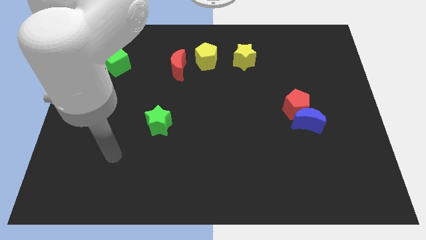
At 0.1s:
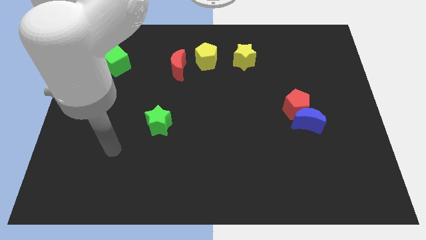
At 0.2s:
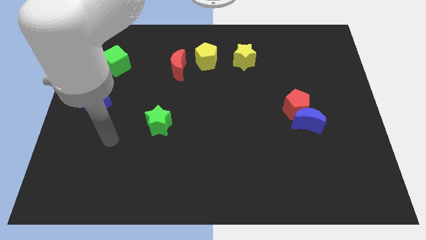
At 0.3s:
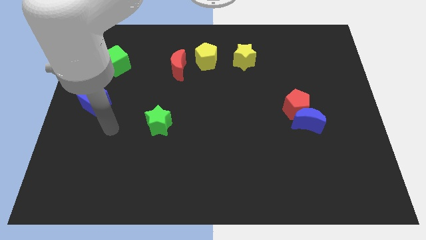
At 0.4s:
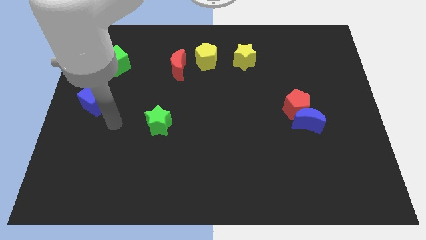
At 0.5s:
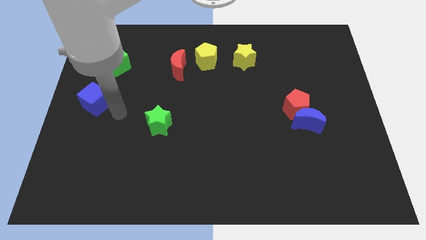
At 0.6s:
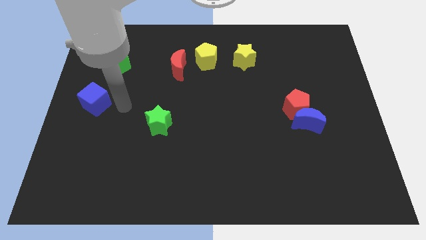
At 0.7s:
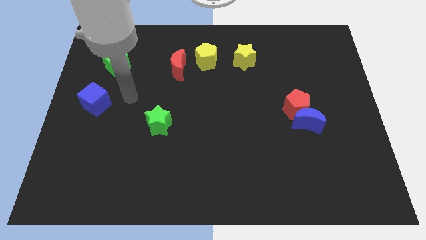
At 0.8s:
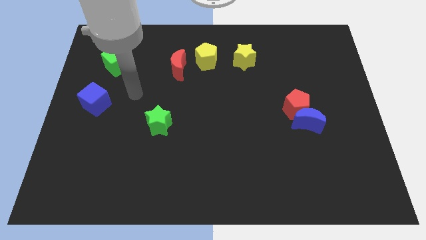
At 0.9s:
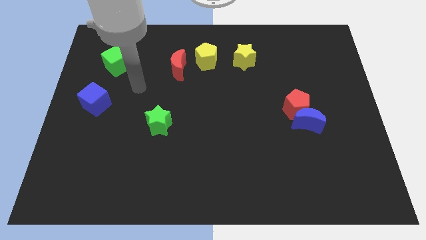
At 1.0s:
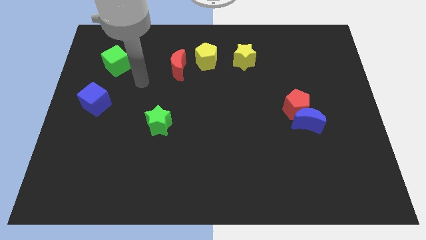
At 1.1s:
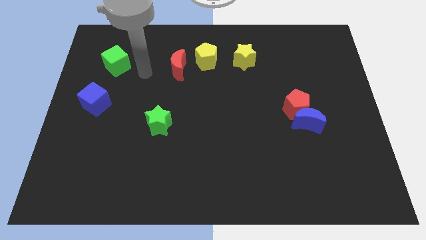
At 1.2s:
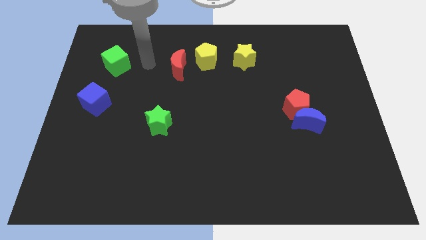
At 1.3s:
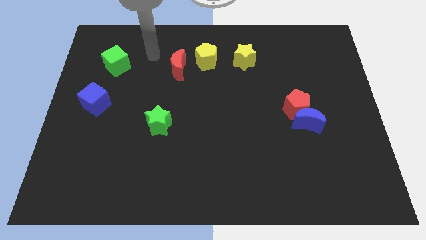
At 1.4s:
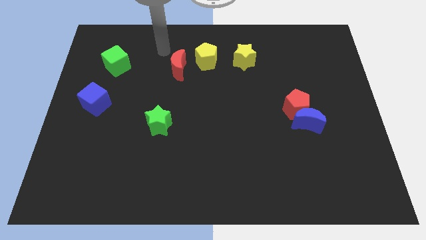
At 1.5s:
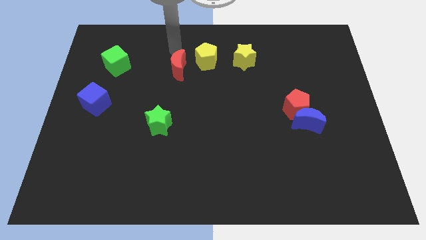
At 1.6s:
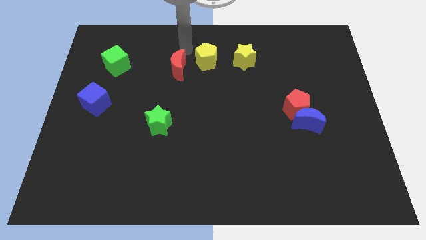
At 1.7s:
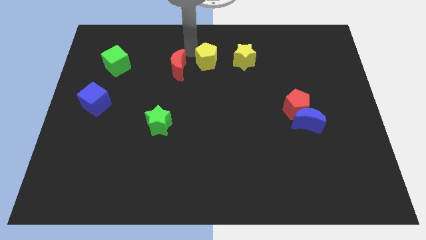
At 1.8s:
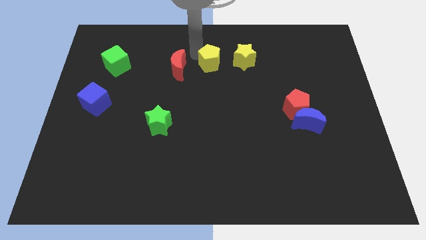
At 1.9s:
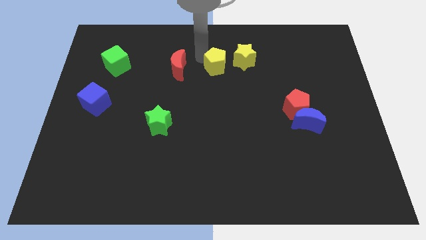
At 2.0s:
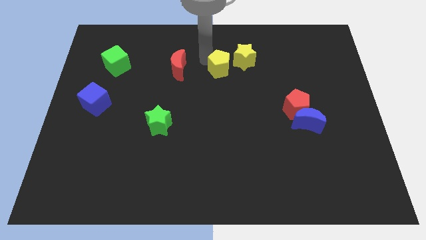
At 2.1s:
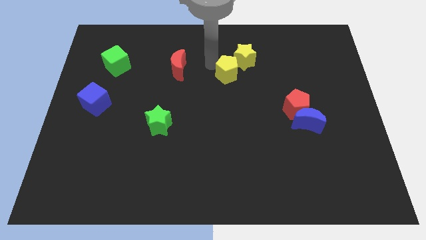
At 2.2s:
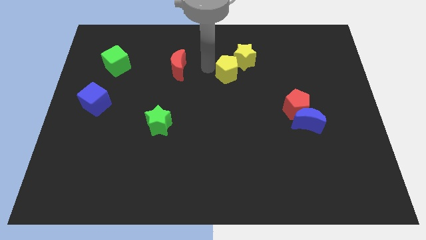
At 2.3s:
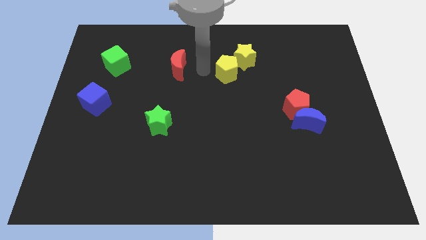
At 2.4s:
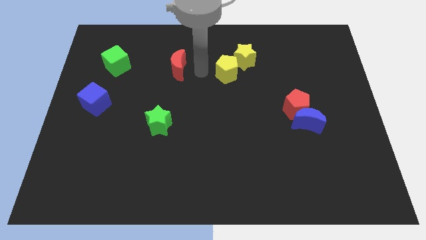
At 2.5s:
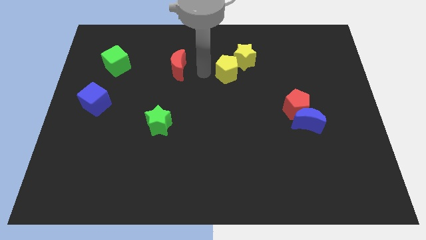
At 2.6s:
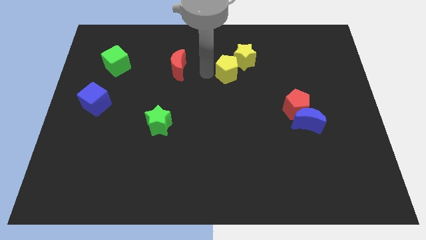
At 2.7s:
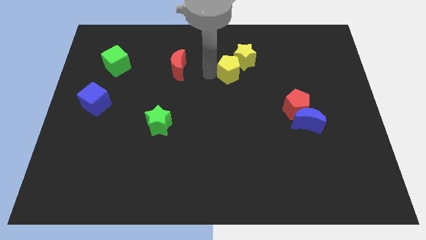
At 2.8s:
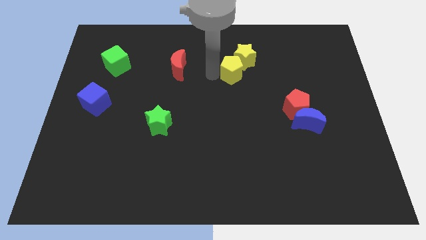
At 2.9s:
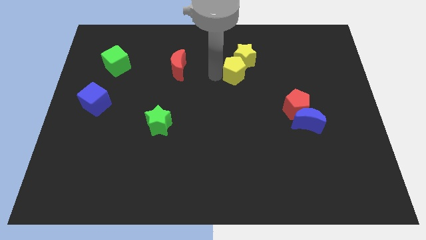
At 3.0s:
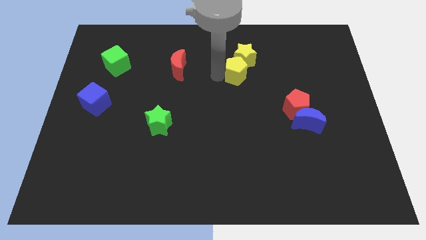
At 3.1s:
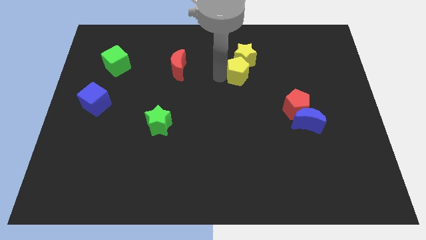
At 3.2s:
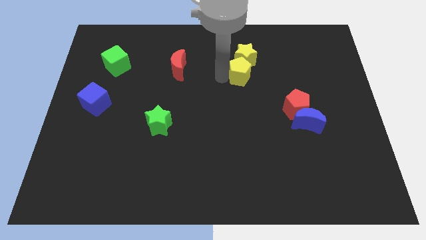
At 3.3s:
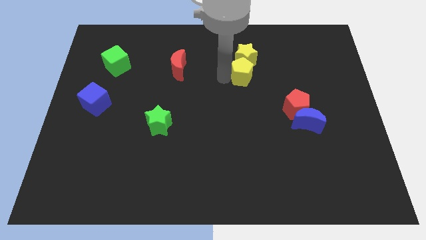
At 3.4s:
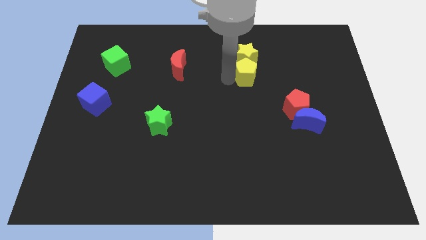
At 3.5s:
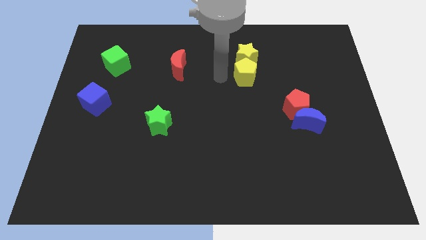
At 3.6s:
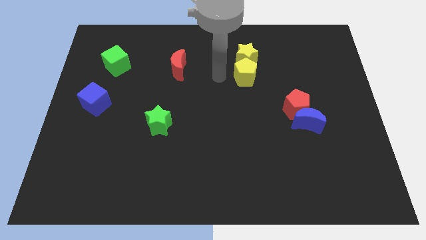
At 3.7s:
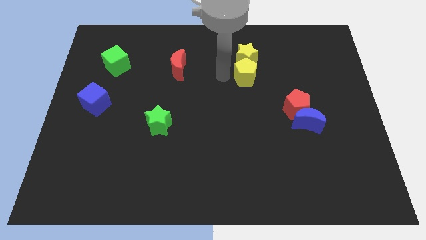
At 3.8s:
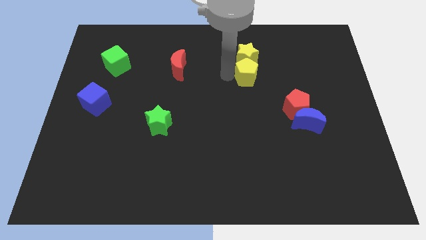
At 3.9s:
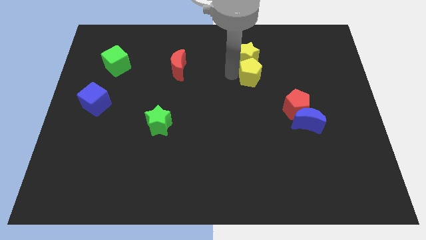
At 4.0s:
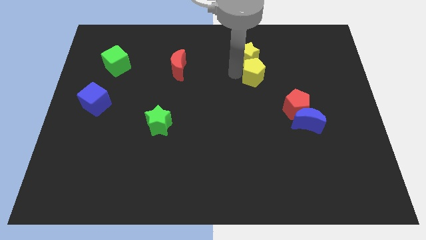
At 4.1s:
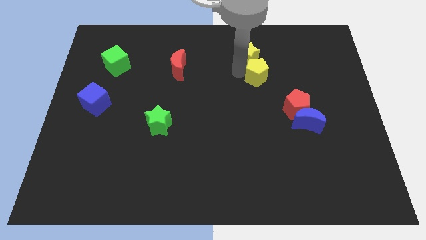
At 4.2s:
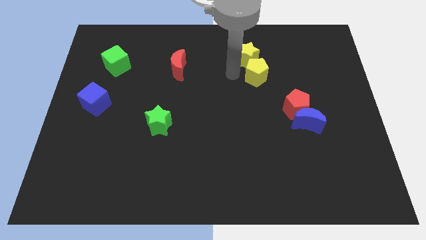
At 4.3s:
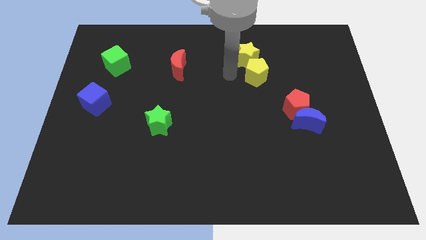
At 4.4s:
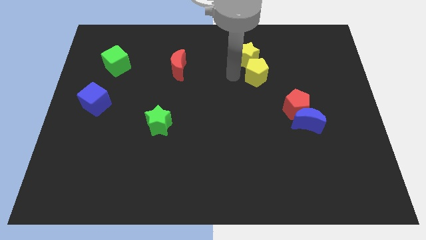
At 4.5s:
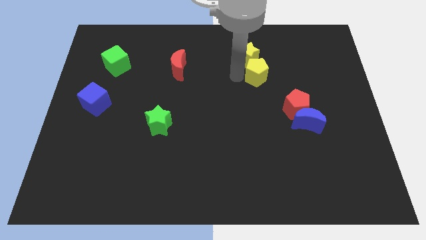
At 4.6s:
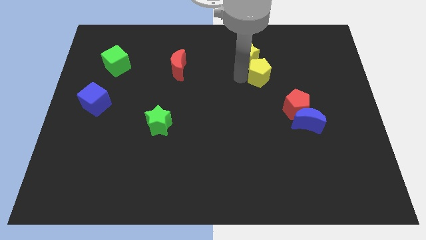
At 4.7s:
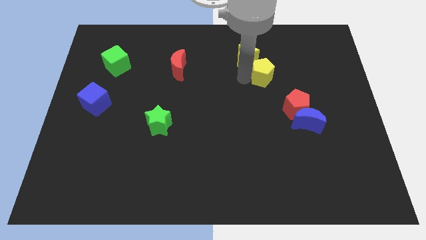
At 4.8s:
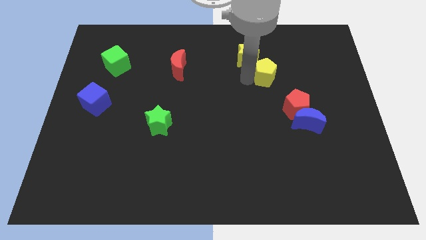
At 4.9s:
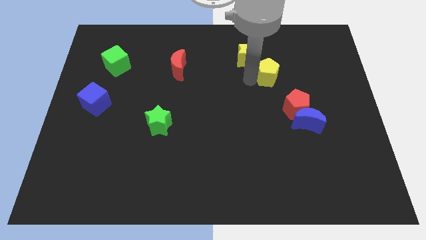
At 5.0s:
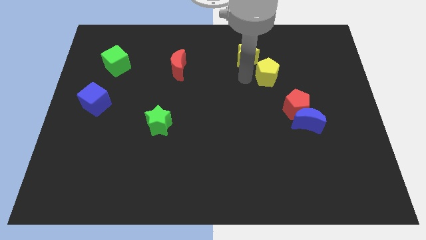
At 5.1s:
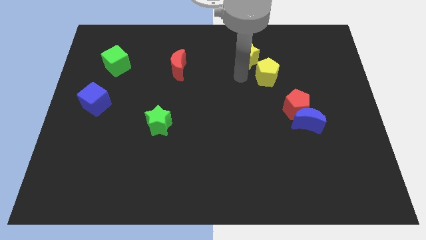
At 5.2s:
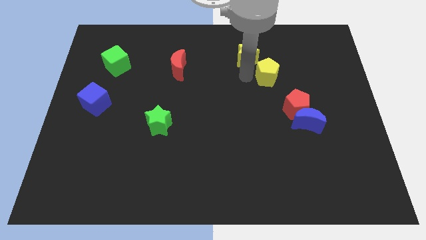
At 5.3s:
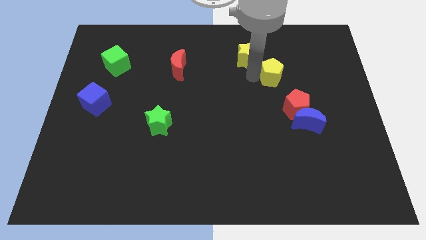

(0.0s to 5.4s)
move the yellow pentagon to the top side of the red pentagon

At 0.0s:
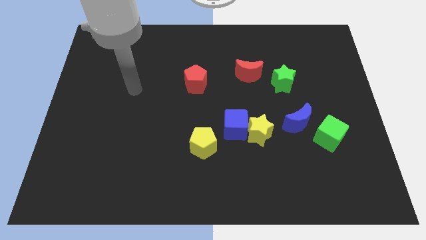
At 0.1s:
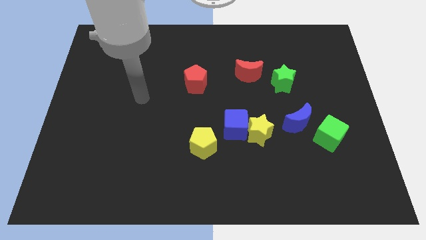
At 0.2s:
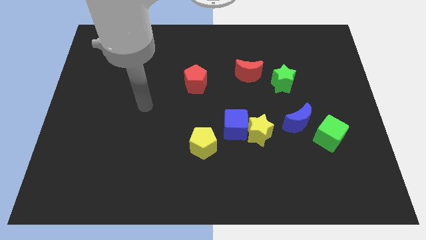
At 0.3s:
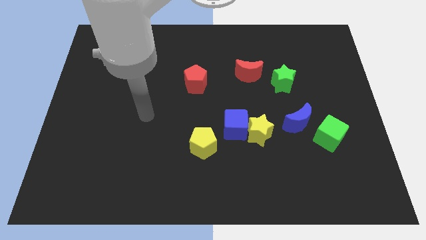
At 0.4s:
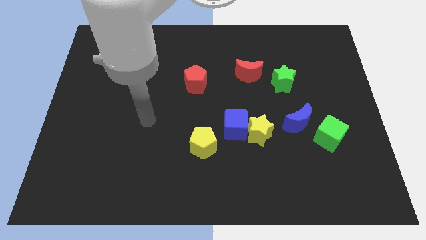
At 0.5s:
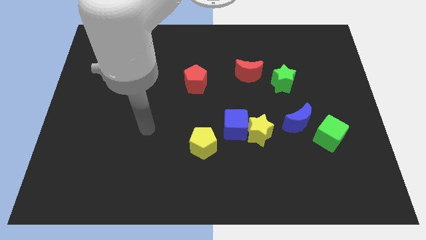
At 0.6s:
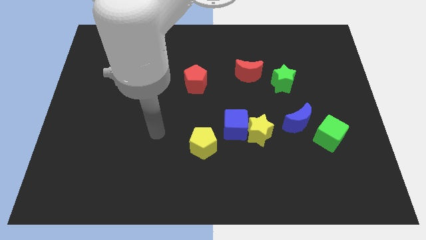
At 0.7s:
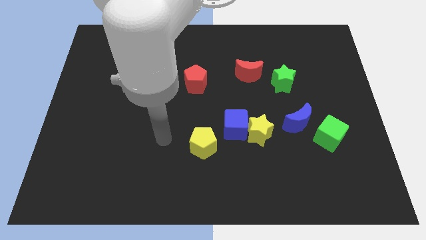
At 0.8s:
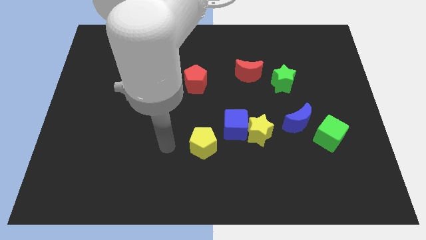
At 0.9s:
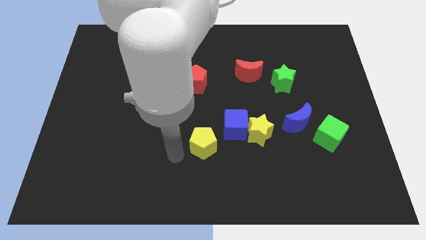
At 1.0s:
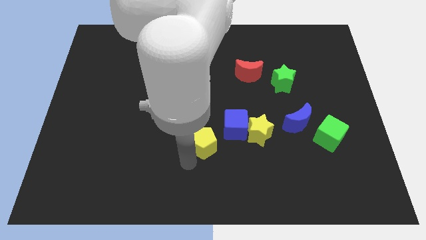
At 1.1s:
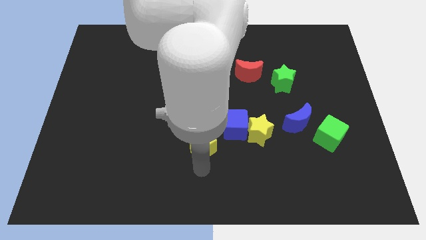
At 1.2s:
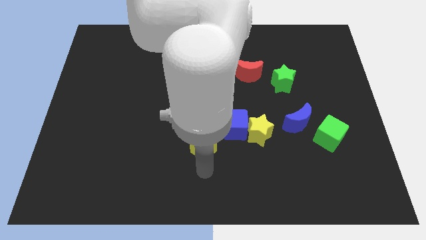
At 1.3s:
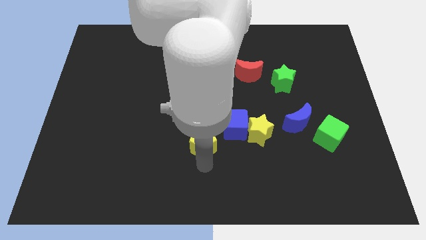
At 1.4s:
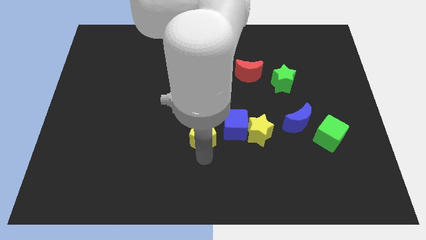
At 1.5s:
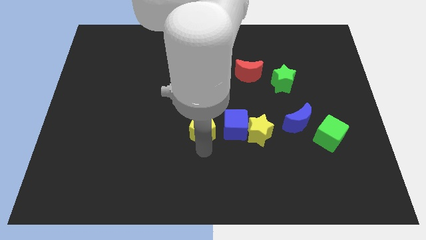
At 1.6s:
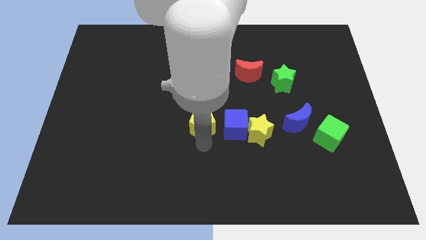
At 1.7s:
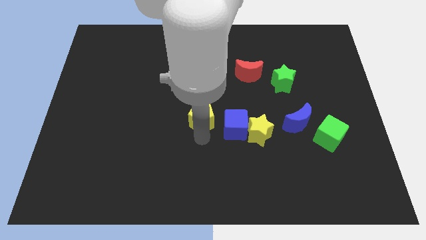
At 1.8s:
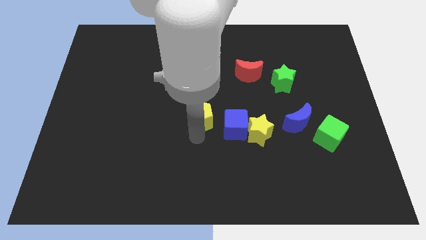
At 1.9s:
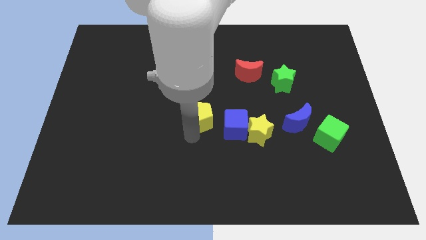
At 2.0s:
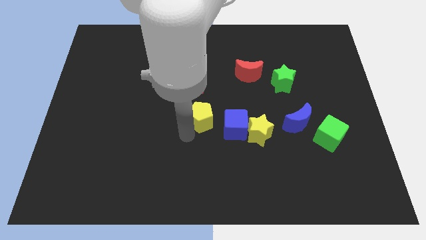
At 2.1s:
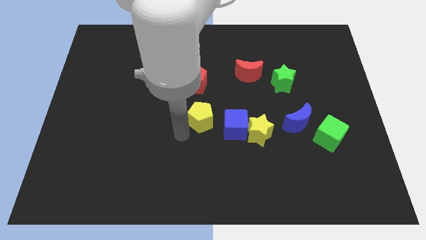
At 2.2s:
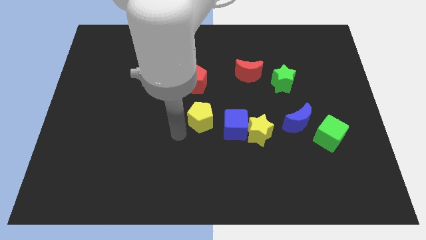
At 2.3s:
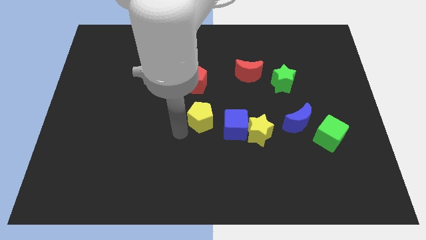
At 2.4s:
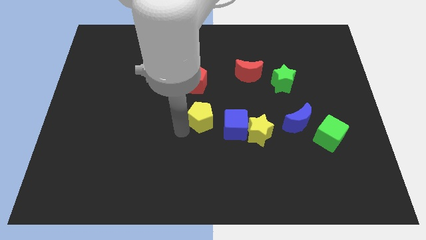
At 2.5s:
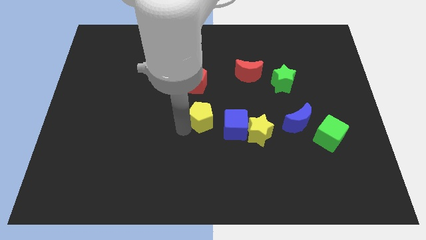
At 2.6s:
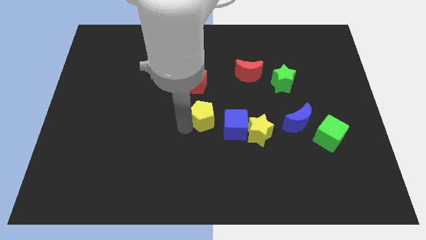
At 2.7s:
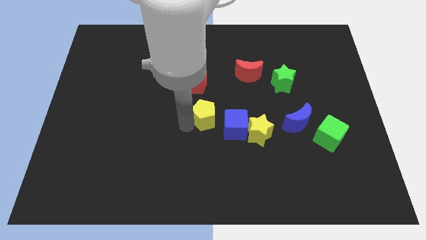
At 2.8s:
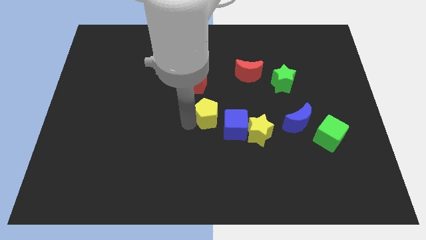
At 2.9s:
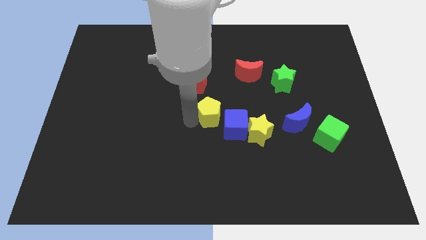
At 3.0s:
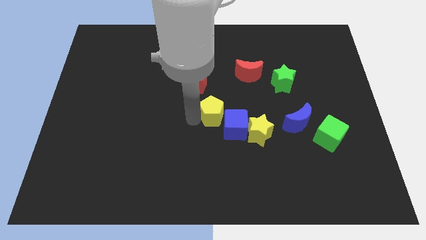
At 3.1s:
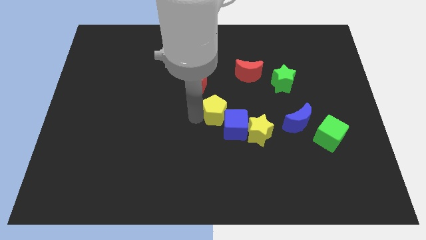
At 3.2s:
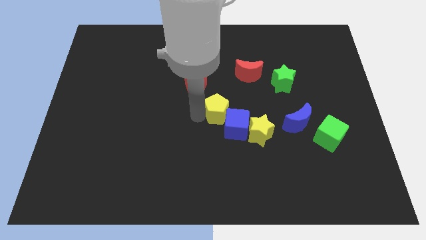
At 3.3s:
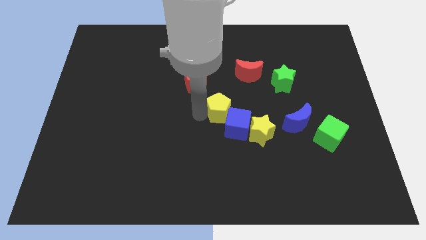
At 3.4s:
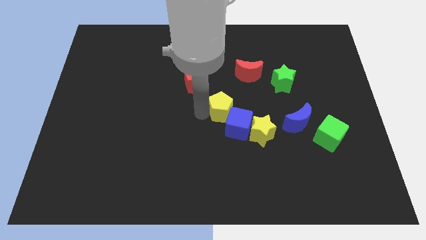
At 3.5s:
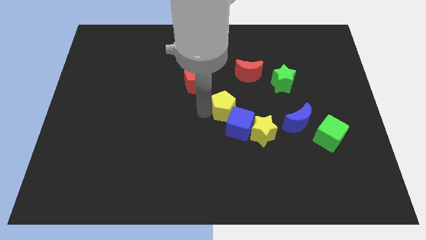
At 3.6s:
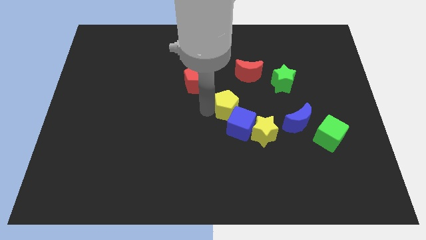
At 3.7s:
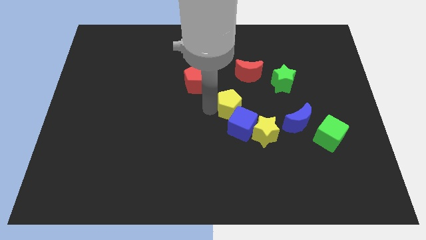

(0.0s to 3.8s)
put the yellow pentagon below the red moon
